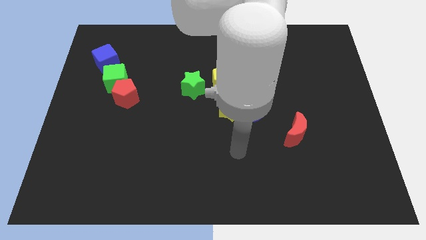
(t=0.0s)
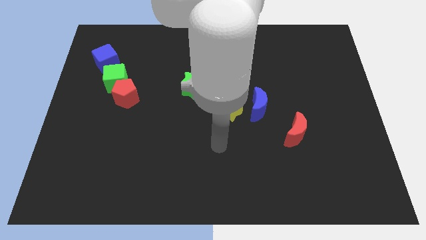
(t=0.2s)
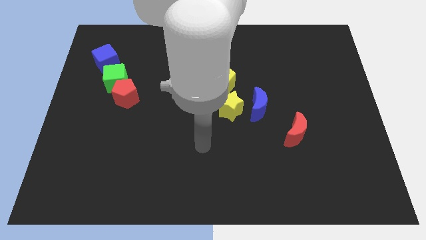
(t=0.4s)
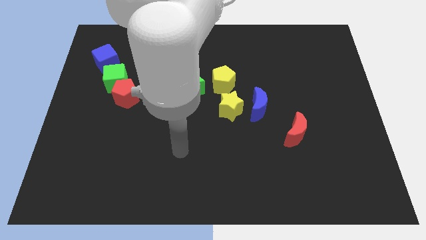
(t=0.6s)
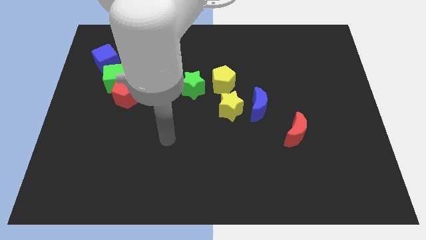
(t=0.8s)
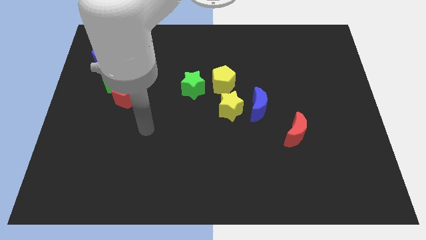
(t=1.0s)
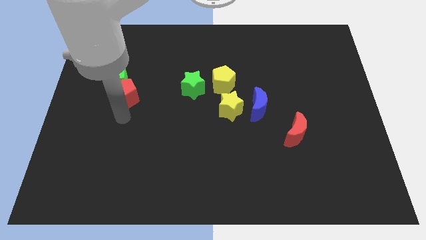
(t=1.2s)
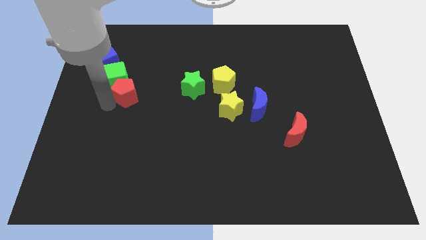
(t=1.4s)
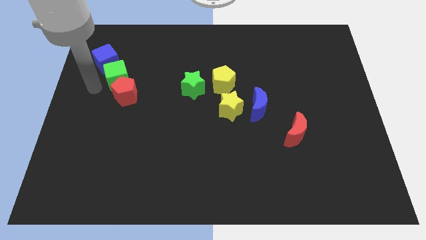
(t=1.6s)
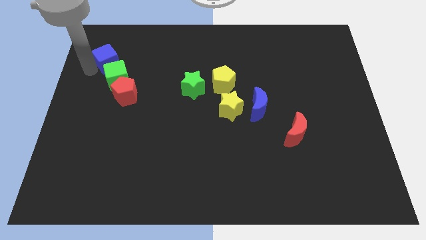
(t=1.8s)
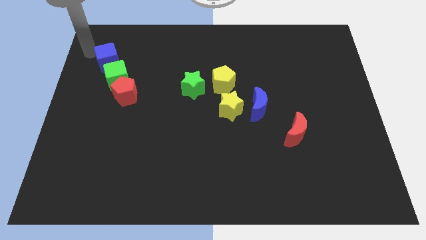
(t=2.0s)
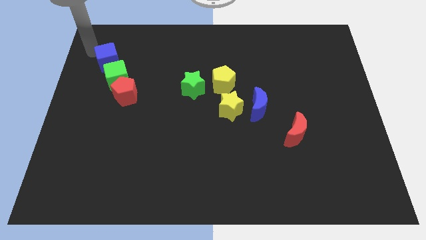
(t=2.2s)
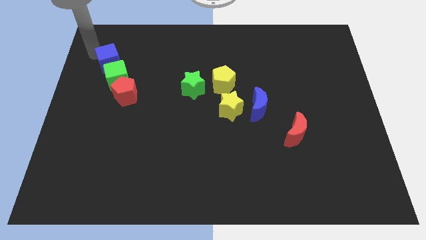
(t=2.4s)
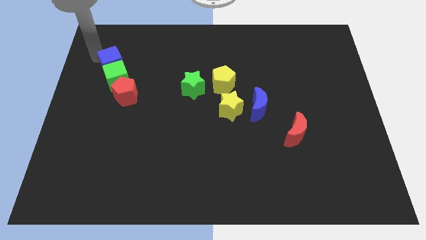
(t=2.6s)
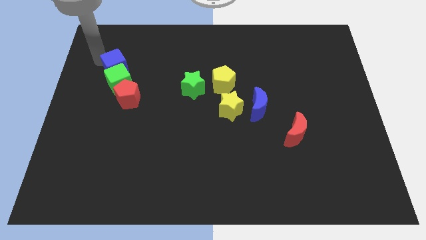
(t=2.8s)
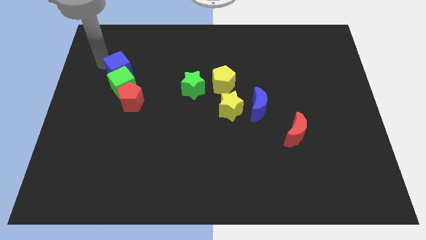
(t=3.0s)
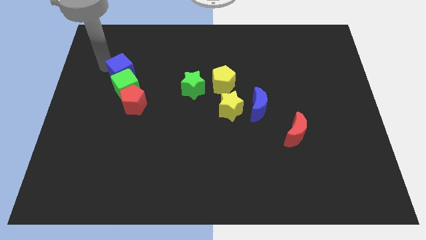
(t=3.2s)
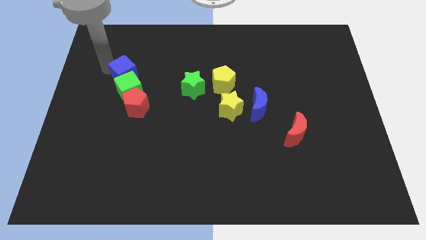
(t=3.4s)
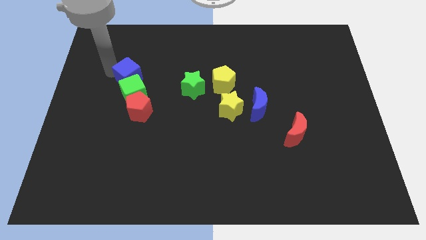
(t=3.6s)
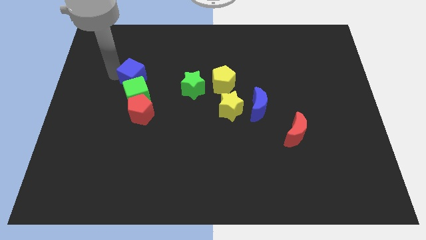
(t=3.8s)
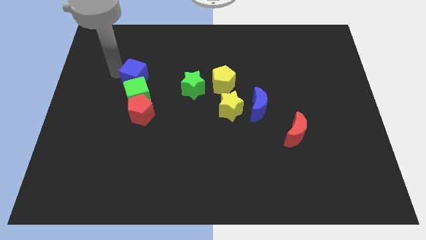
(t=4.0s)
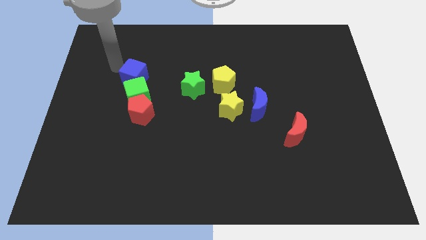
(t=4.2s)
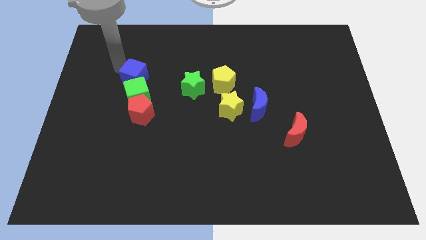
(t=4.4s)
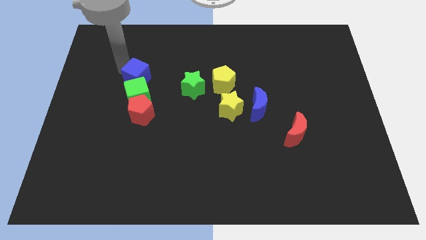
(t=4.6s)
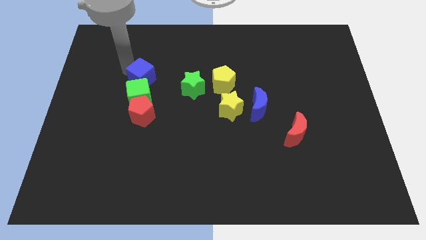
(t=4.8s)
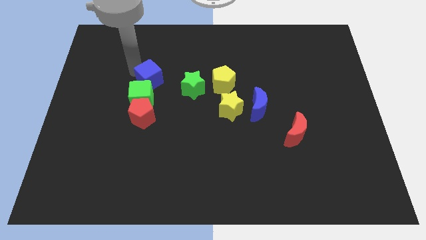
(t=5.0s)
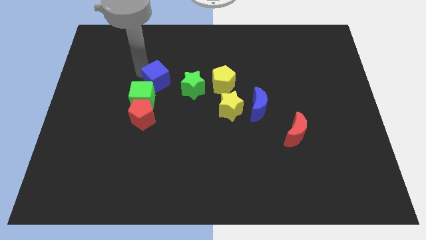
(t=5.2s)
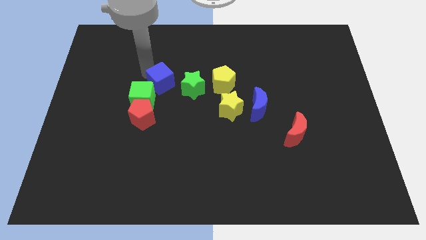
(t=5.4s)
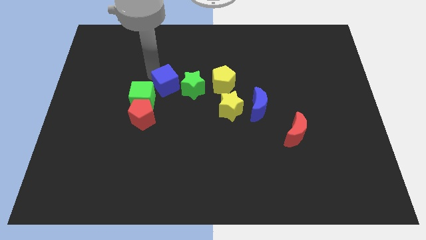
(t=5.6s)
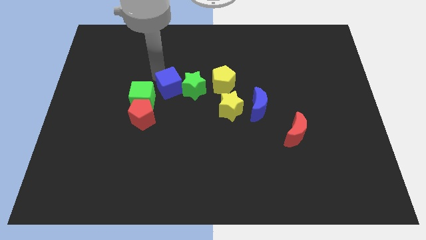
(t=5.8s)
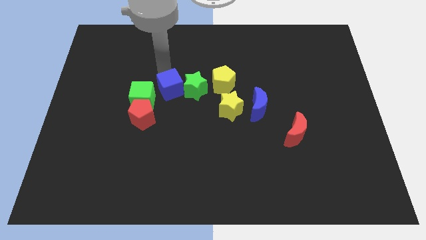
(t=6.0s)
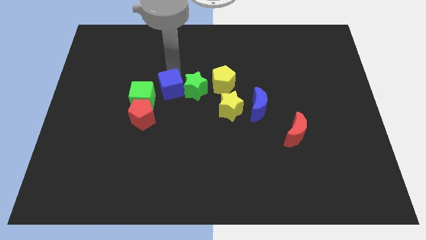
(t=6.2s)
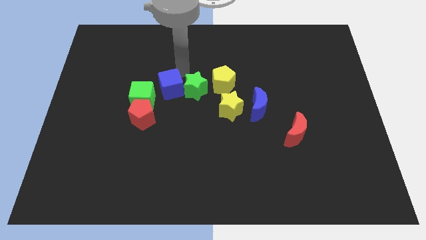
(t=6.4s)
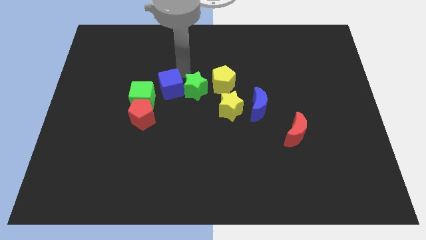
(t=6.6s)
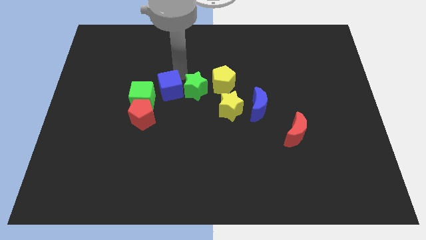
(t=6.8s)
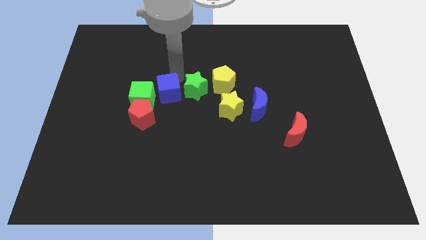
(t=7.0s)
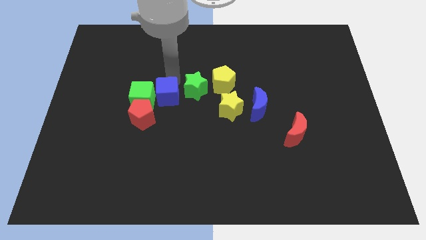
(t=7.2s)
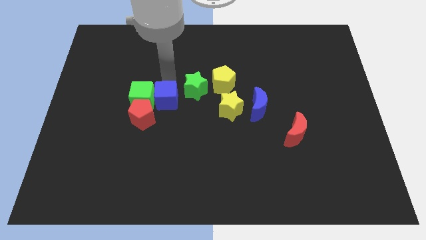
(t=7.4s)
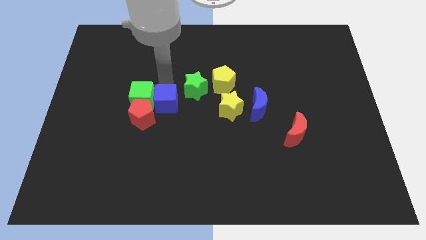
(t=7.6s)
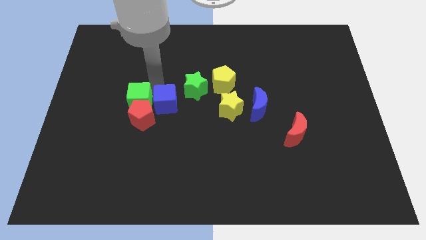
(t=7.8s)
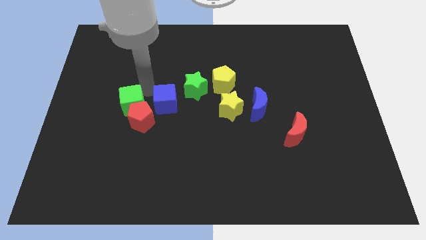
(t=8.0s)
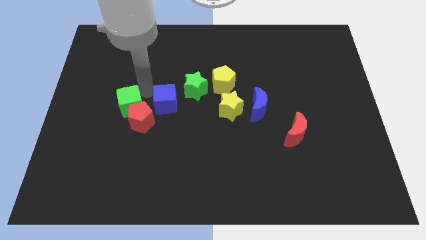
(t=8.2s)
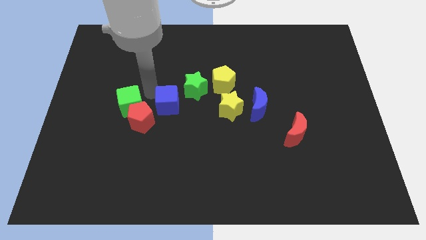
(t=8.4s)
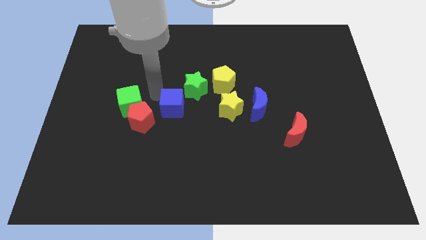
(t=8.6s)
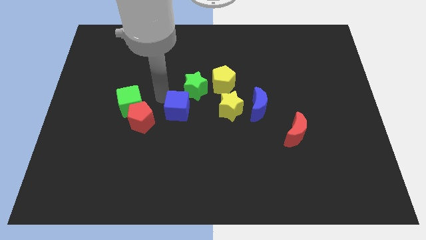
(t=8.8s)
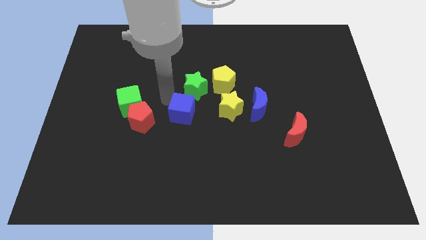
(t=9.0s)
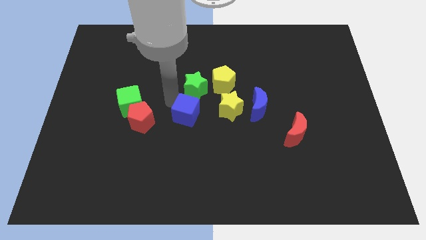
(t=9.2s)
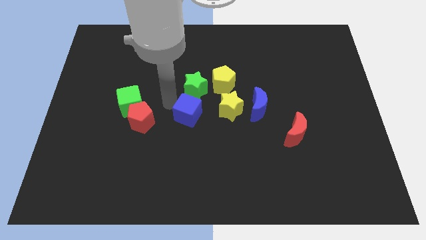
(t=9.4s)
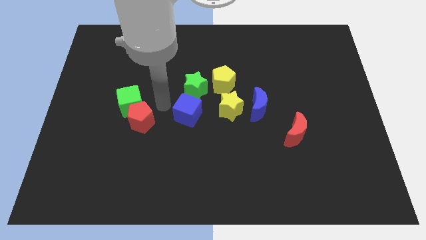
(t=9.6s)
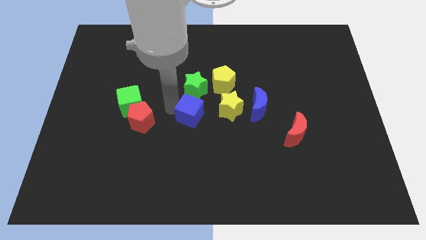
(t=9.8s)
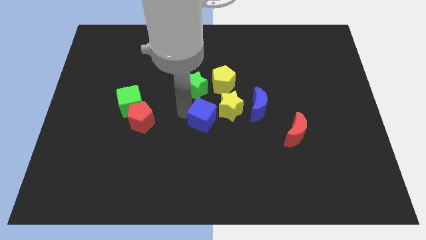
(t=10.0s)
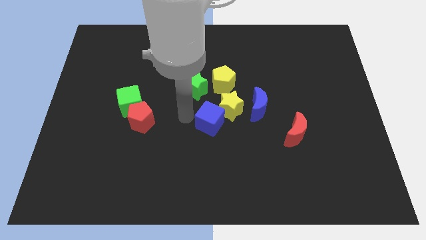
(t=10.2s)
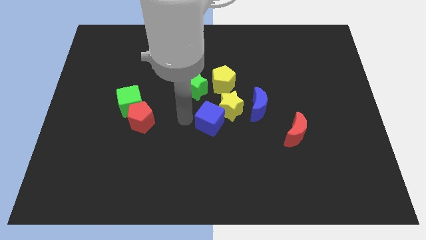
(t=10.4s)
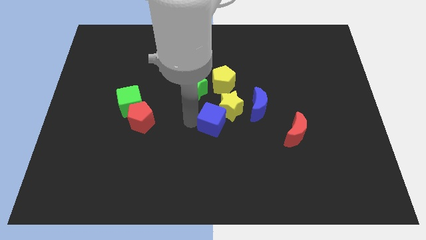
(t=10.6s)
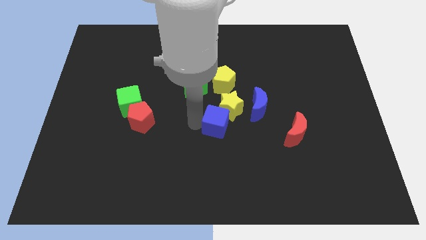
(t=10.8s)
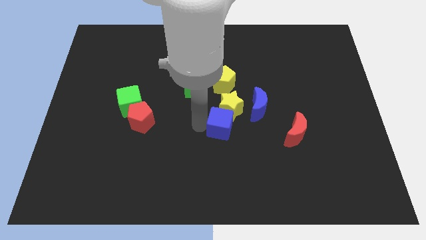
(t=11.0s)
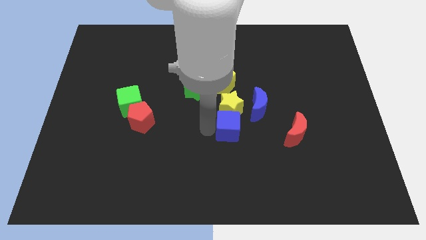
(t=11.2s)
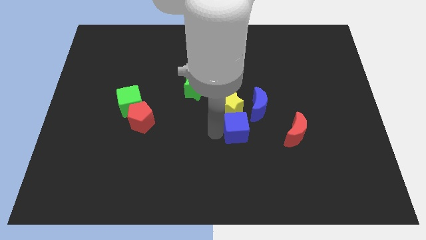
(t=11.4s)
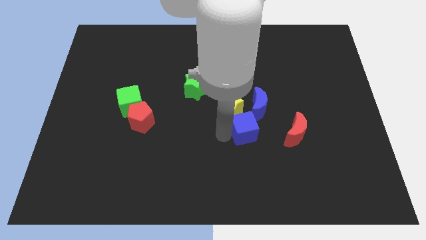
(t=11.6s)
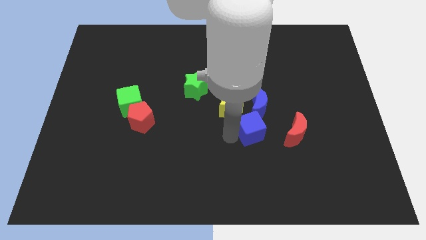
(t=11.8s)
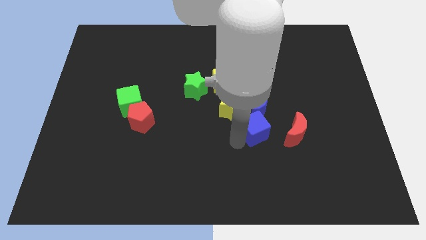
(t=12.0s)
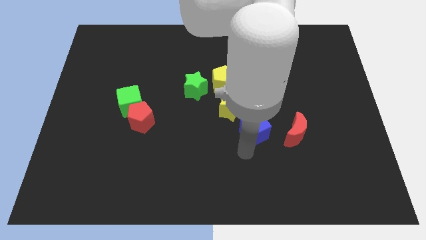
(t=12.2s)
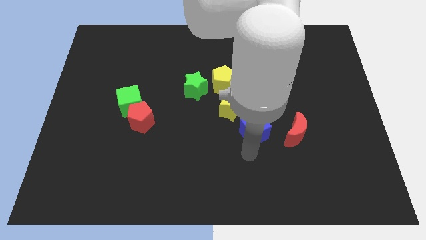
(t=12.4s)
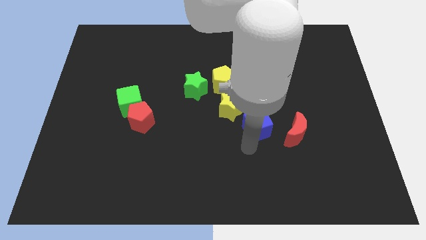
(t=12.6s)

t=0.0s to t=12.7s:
put the blue cube close to the blue moon

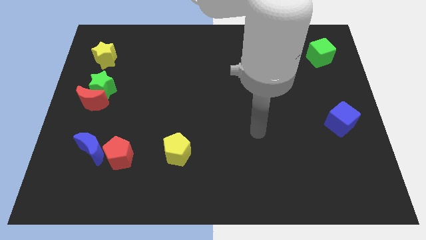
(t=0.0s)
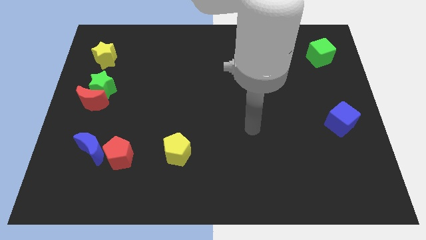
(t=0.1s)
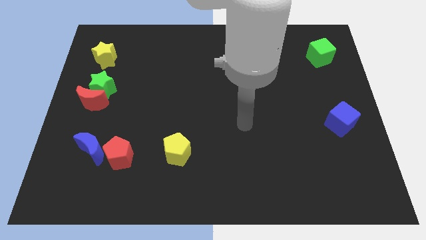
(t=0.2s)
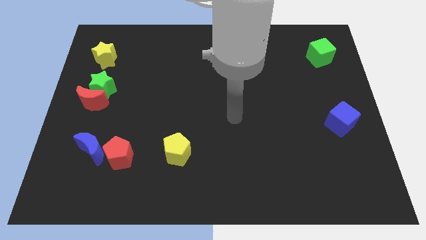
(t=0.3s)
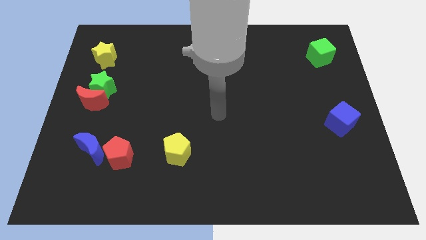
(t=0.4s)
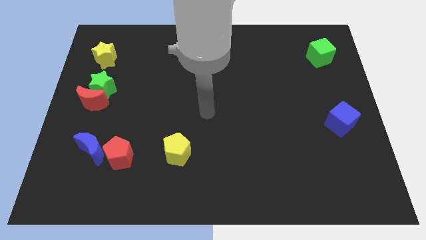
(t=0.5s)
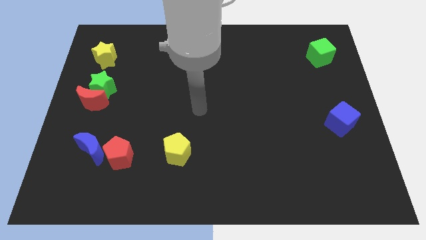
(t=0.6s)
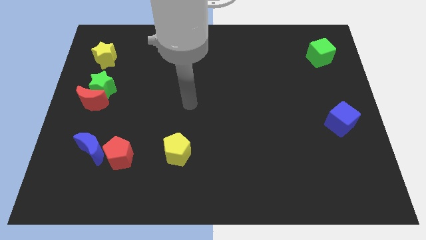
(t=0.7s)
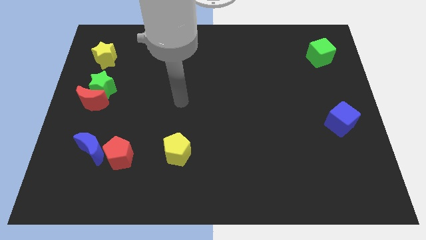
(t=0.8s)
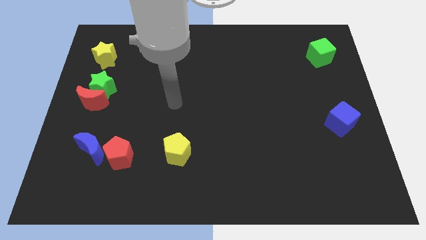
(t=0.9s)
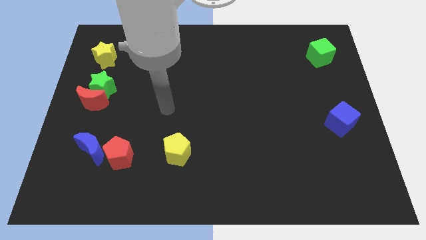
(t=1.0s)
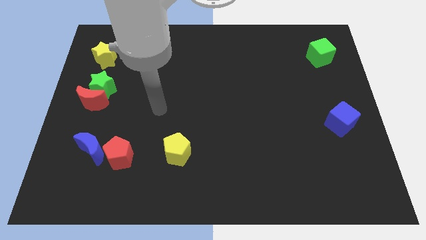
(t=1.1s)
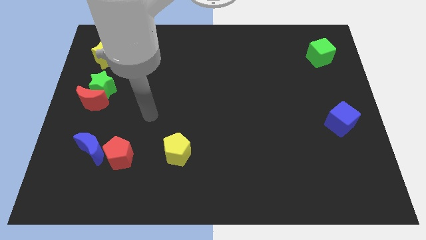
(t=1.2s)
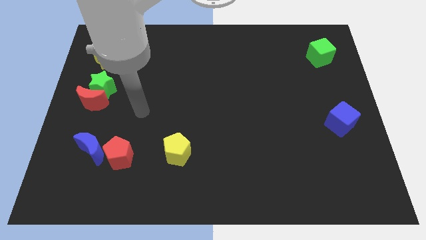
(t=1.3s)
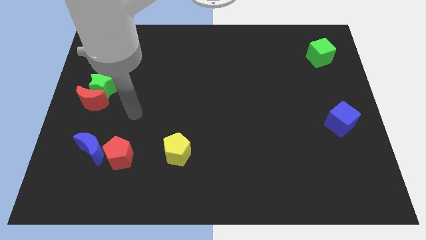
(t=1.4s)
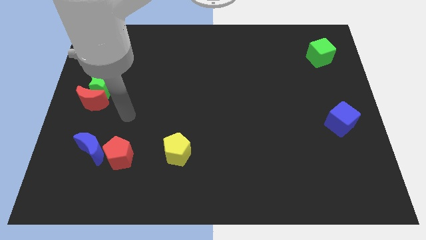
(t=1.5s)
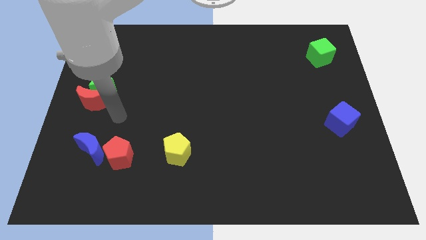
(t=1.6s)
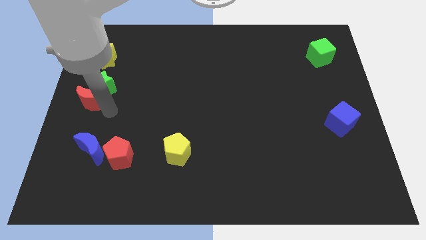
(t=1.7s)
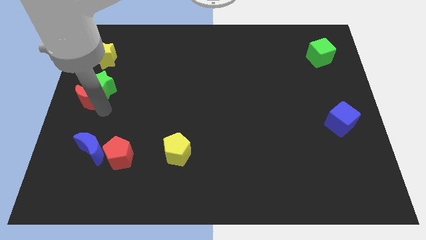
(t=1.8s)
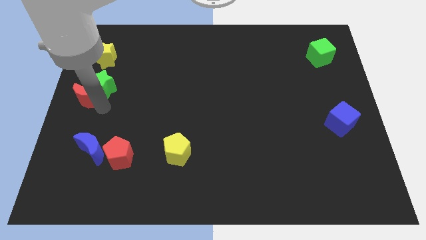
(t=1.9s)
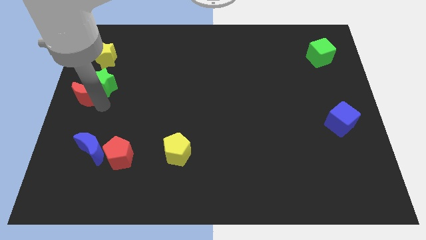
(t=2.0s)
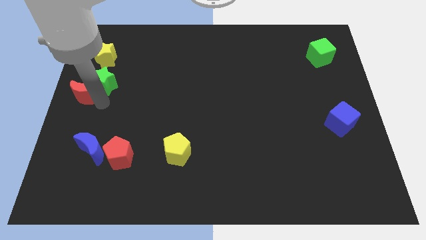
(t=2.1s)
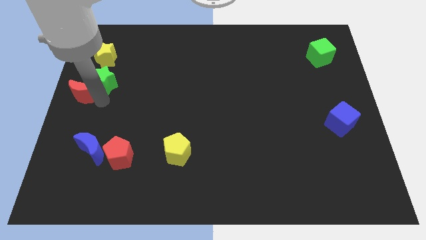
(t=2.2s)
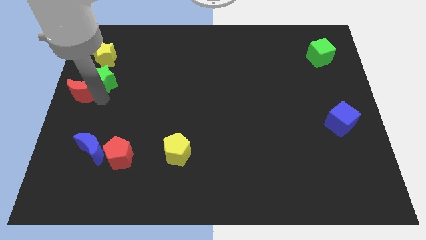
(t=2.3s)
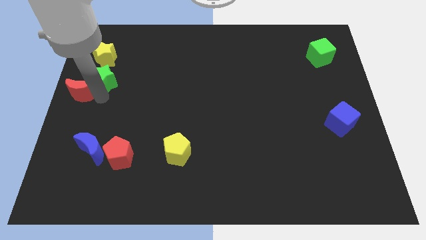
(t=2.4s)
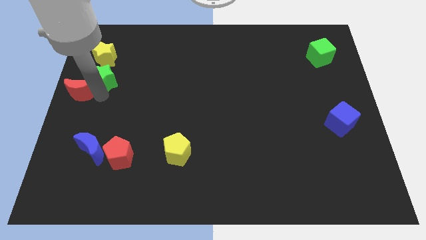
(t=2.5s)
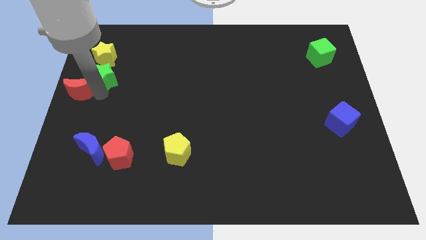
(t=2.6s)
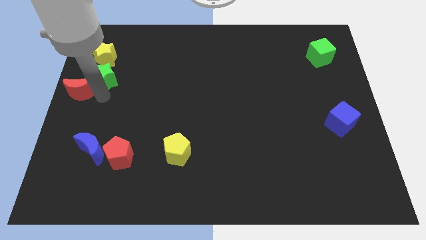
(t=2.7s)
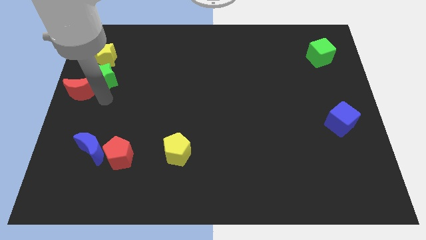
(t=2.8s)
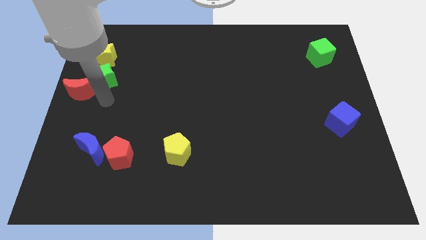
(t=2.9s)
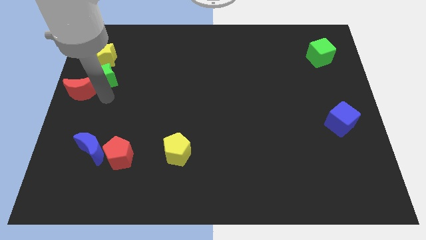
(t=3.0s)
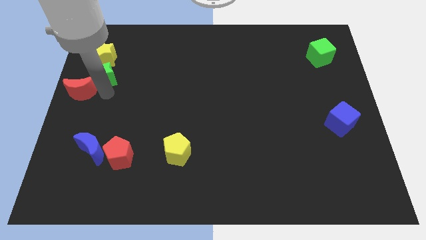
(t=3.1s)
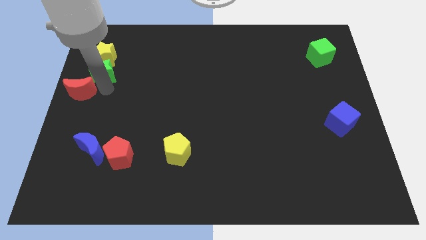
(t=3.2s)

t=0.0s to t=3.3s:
push the green star towards the yellow star
